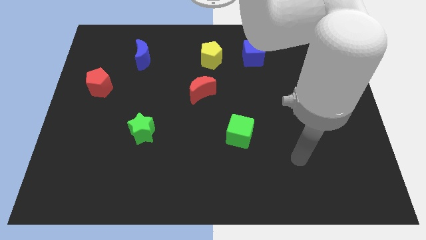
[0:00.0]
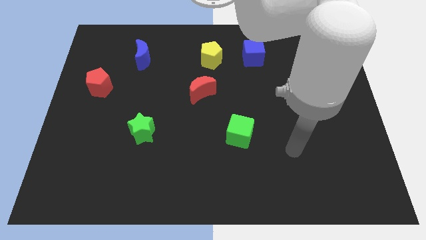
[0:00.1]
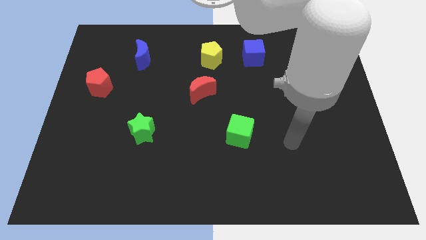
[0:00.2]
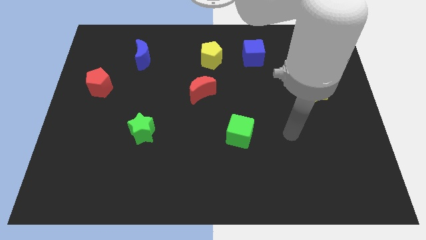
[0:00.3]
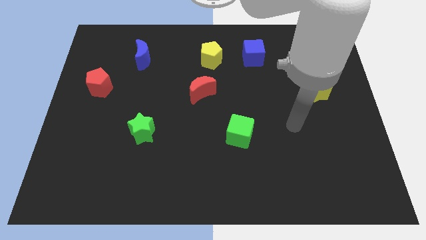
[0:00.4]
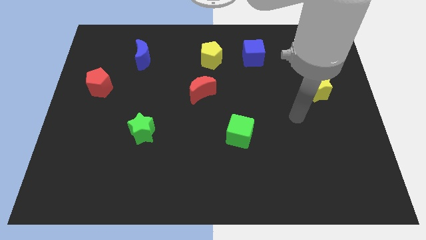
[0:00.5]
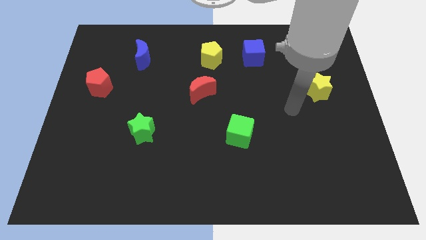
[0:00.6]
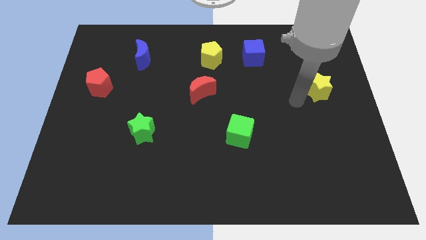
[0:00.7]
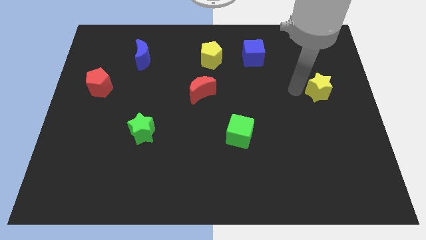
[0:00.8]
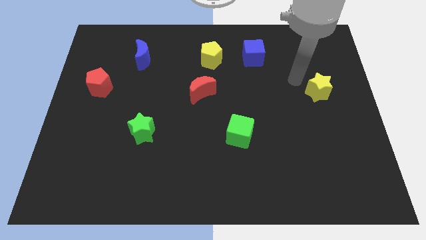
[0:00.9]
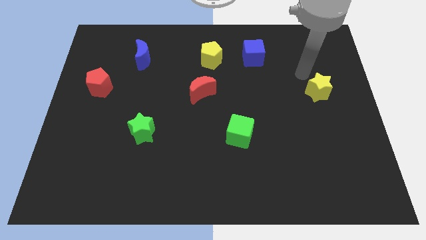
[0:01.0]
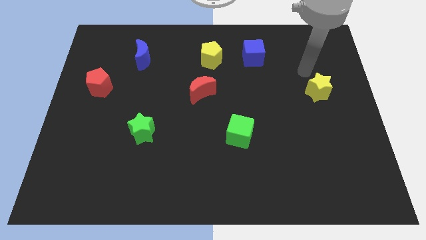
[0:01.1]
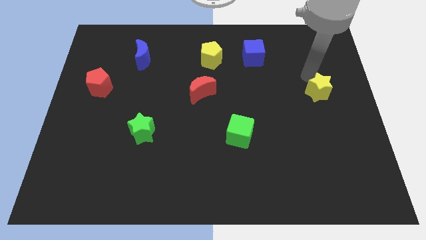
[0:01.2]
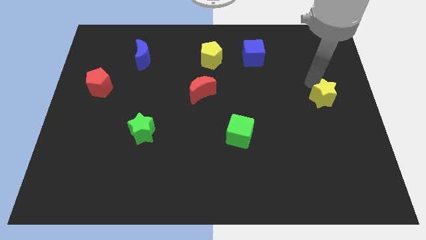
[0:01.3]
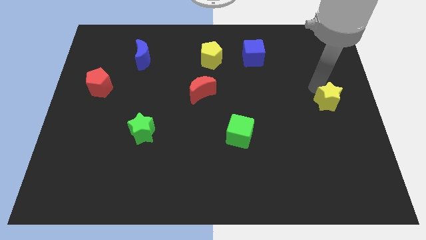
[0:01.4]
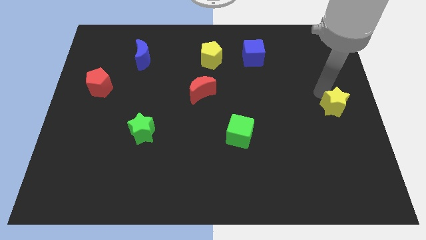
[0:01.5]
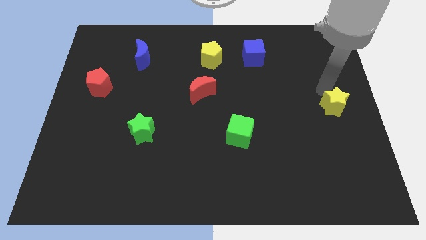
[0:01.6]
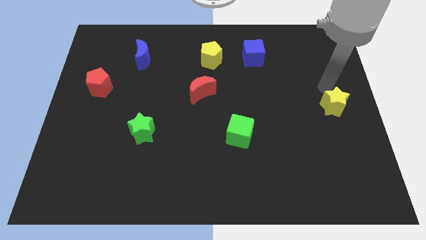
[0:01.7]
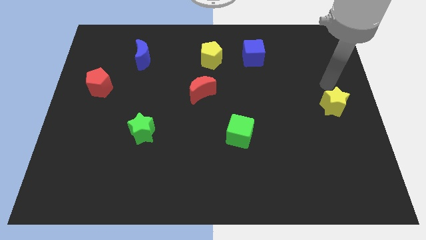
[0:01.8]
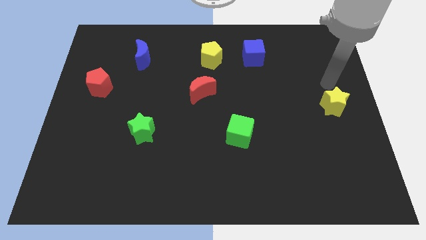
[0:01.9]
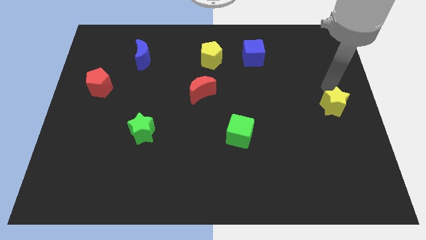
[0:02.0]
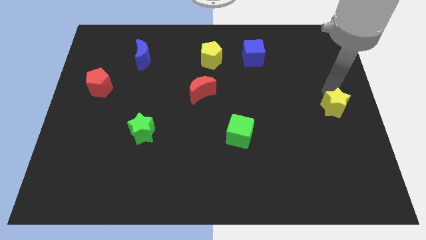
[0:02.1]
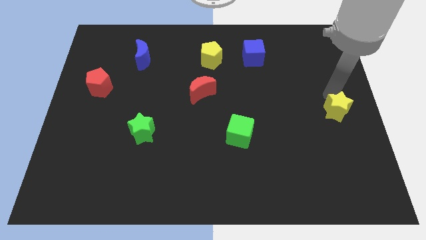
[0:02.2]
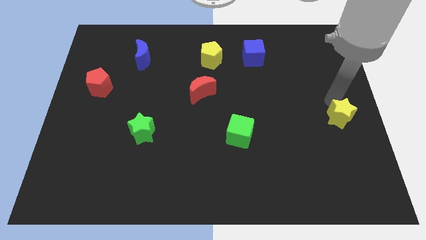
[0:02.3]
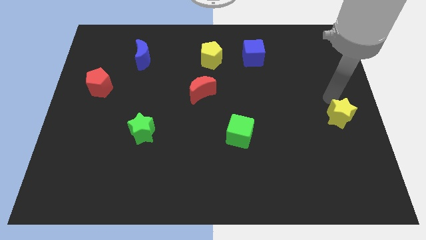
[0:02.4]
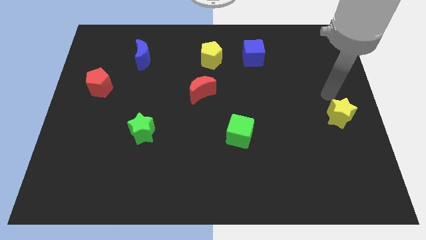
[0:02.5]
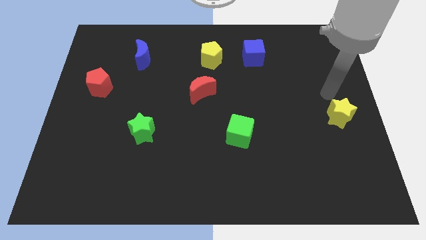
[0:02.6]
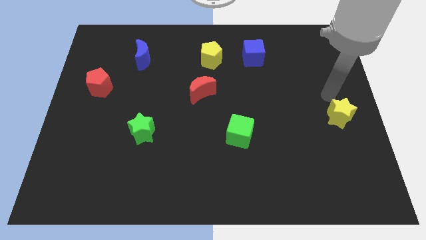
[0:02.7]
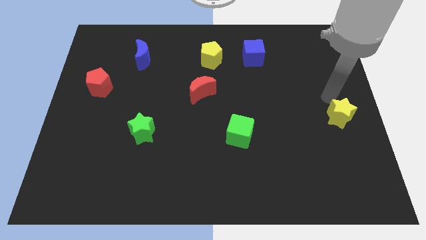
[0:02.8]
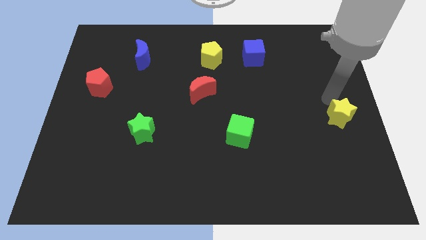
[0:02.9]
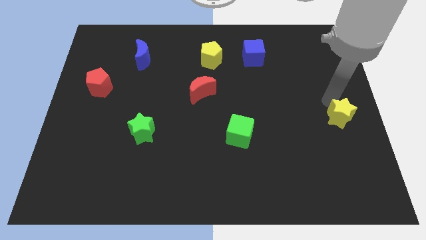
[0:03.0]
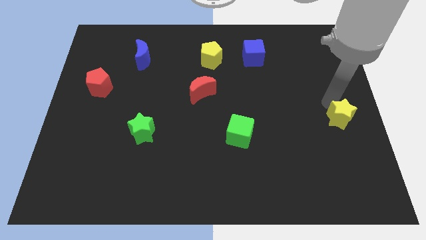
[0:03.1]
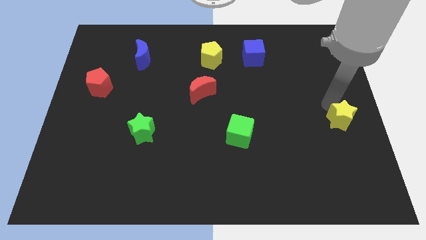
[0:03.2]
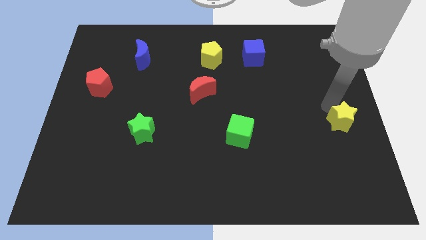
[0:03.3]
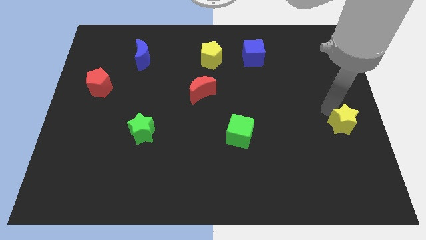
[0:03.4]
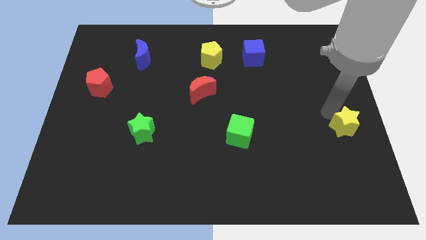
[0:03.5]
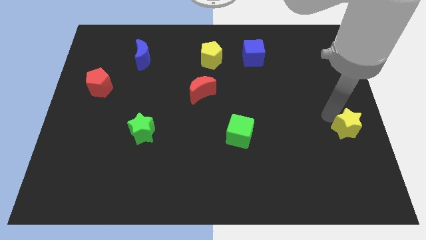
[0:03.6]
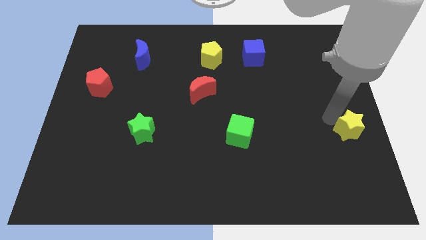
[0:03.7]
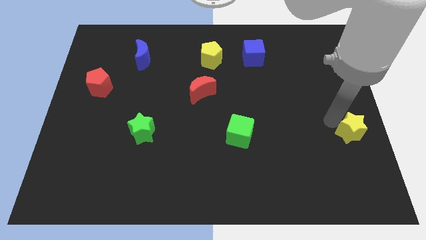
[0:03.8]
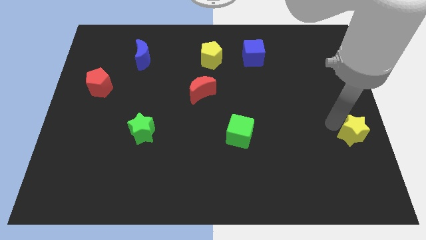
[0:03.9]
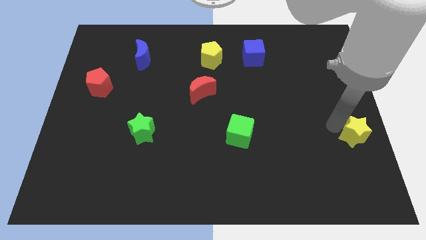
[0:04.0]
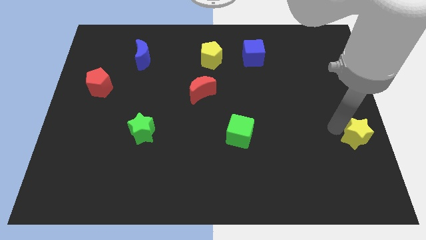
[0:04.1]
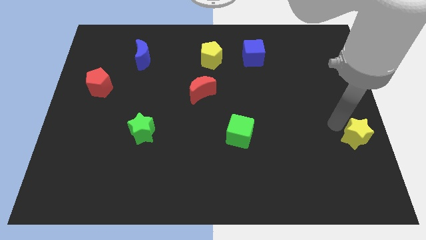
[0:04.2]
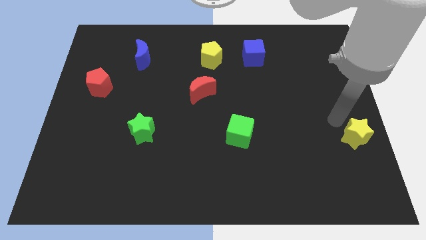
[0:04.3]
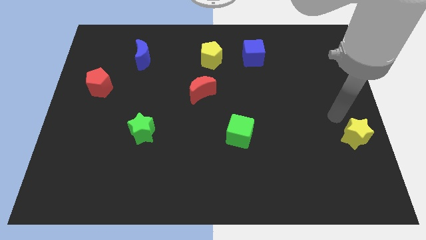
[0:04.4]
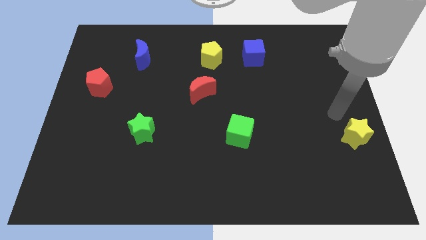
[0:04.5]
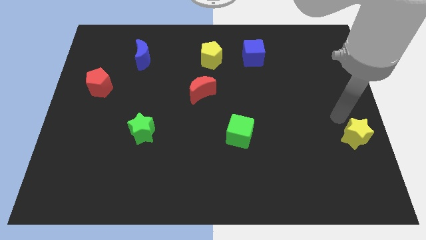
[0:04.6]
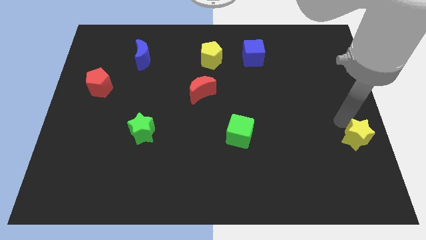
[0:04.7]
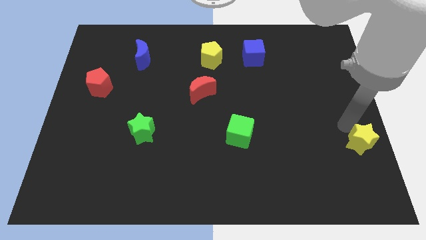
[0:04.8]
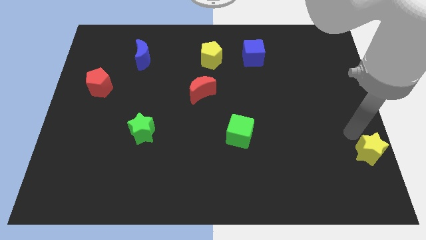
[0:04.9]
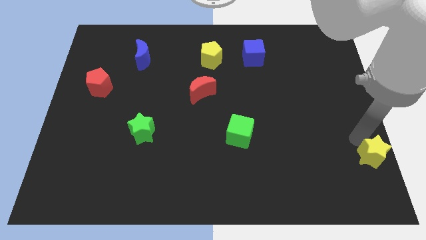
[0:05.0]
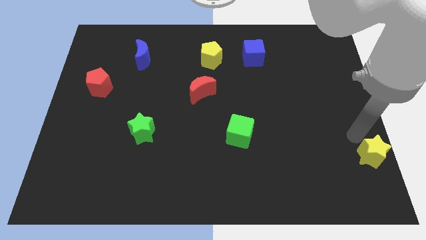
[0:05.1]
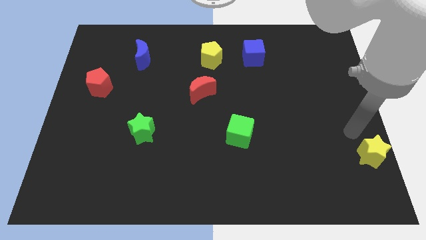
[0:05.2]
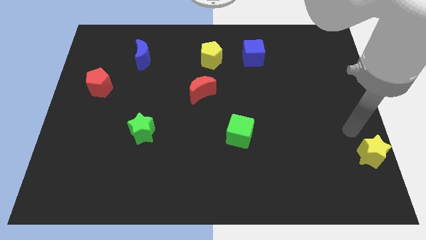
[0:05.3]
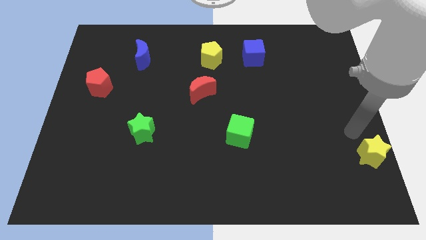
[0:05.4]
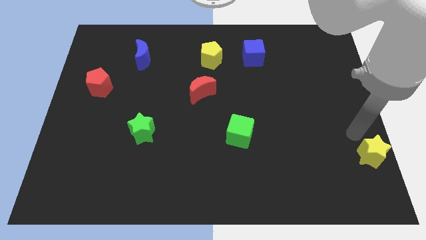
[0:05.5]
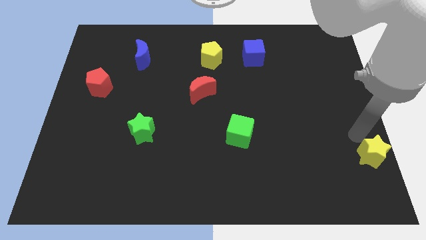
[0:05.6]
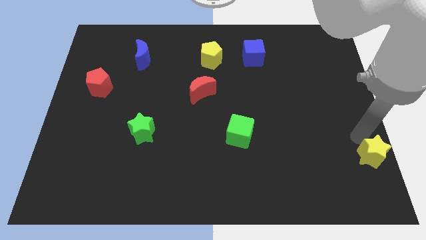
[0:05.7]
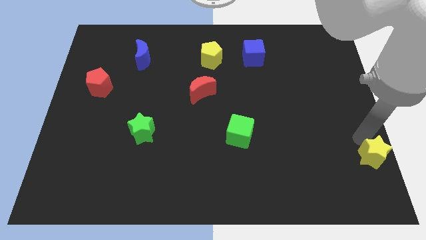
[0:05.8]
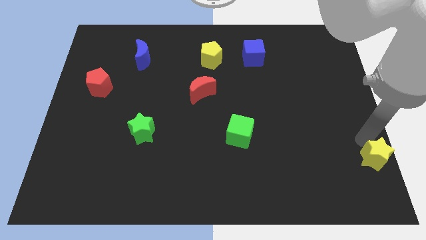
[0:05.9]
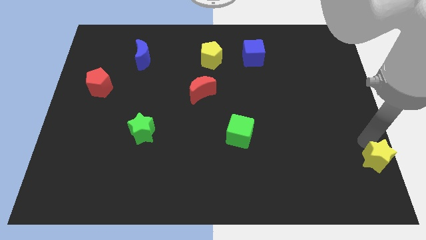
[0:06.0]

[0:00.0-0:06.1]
put the yellow star to the lower right corner
